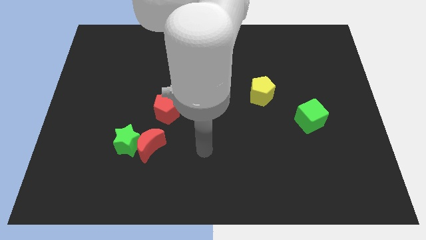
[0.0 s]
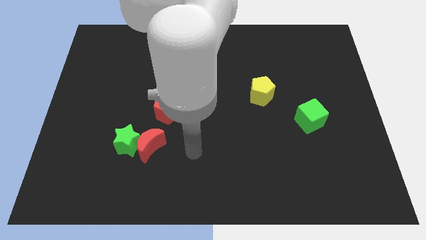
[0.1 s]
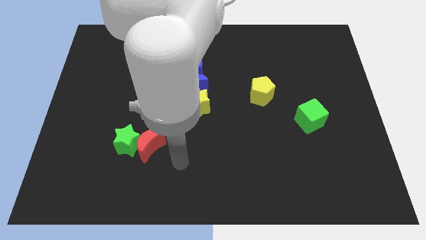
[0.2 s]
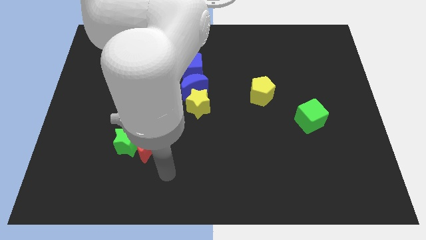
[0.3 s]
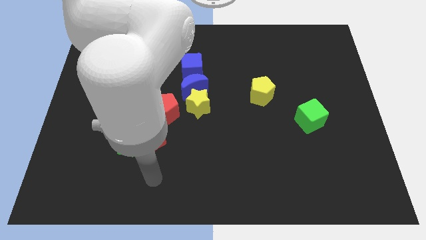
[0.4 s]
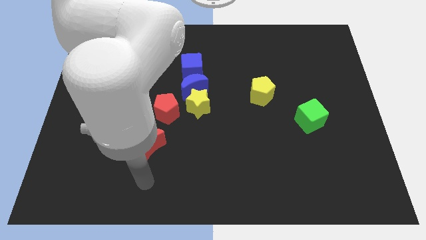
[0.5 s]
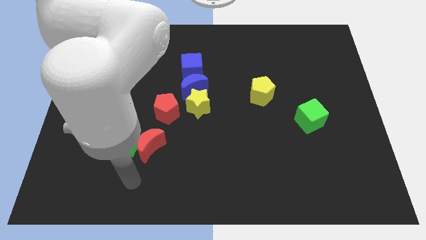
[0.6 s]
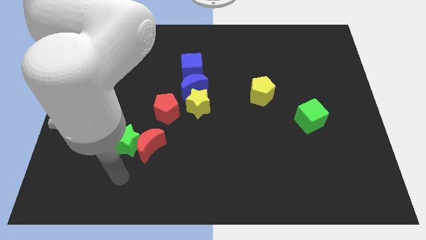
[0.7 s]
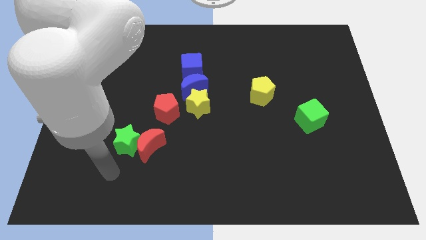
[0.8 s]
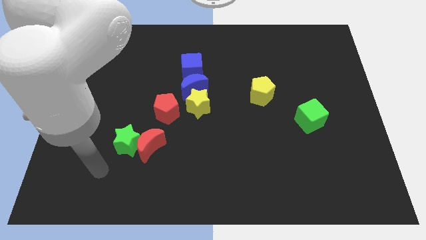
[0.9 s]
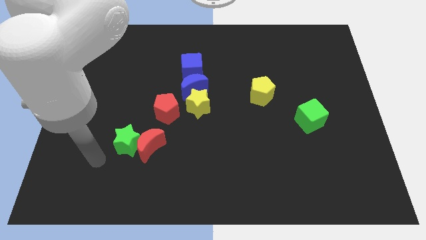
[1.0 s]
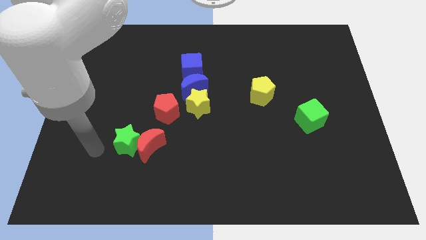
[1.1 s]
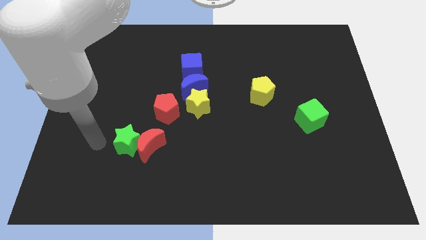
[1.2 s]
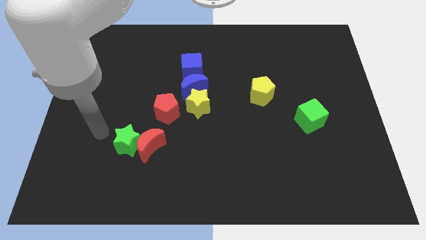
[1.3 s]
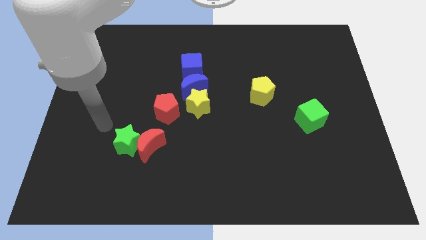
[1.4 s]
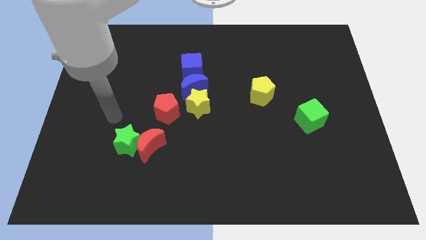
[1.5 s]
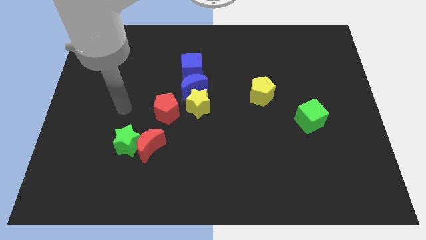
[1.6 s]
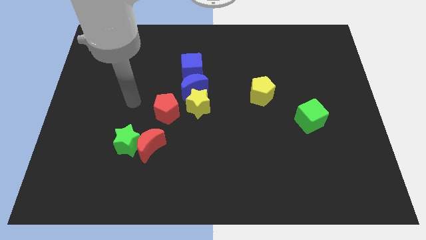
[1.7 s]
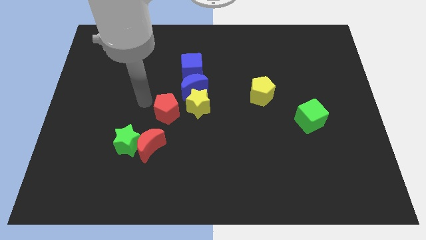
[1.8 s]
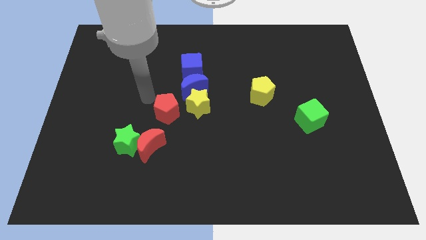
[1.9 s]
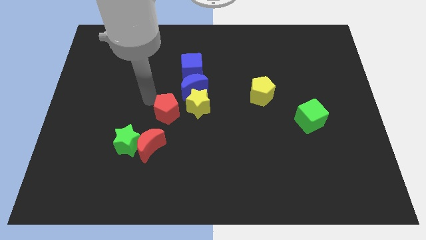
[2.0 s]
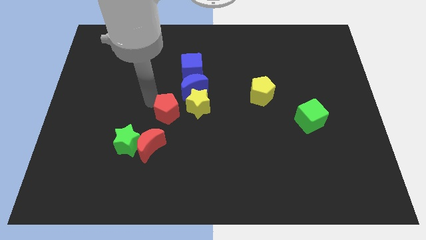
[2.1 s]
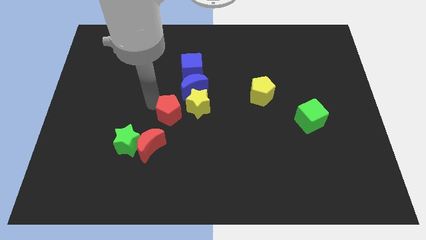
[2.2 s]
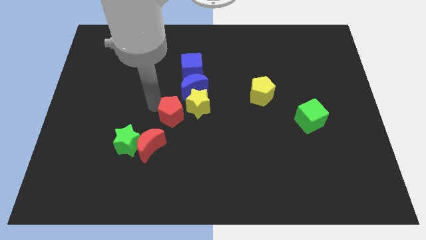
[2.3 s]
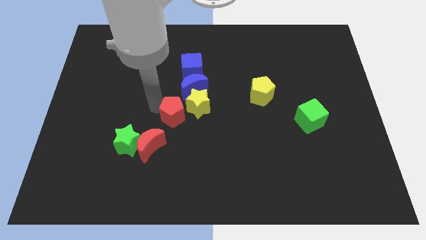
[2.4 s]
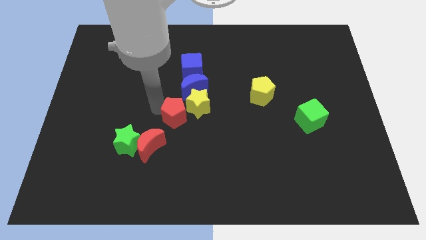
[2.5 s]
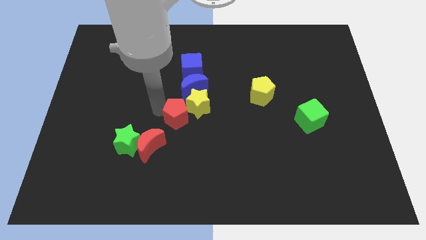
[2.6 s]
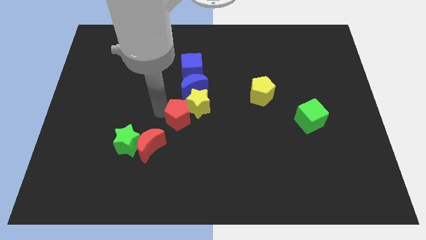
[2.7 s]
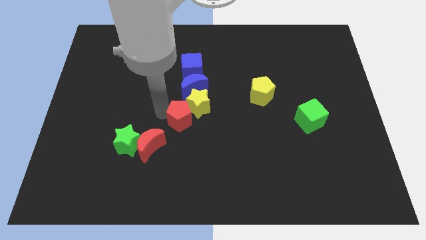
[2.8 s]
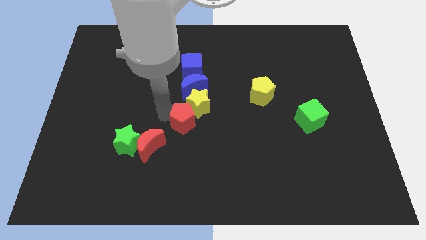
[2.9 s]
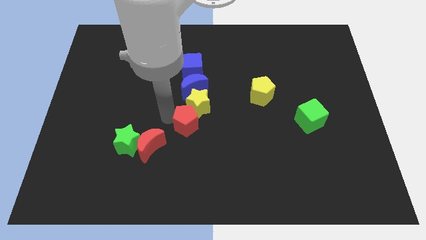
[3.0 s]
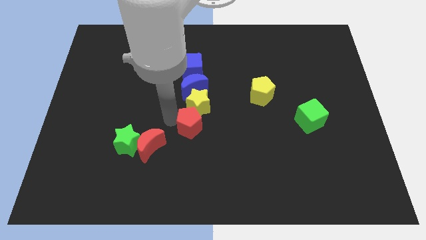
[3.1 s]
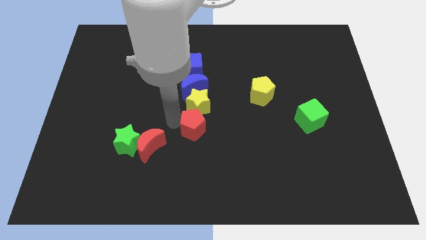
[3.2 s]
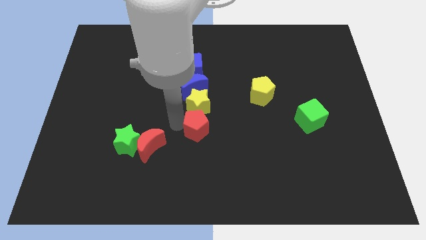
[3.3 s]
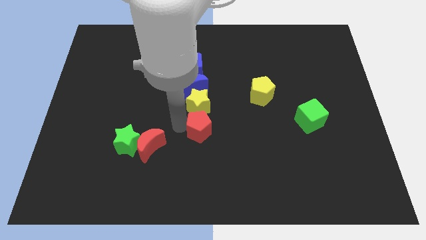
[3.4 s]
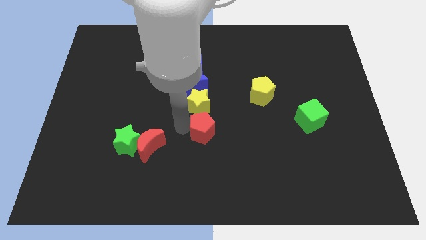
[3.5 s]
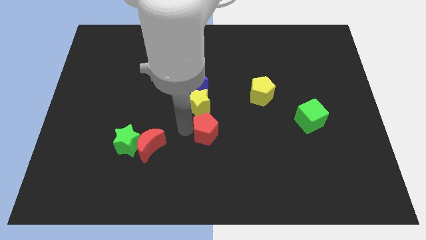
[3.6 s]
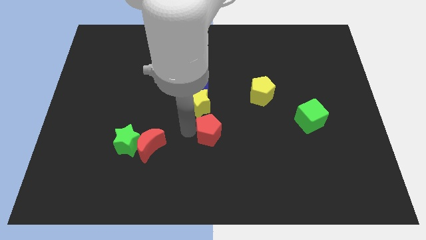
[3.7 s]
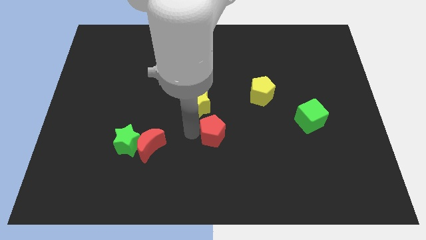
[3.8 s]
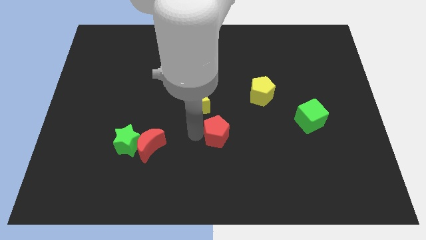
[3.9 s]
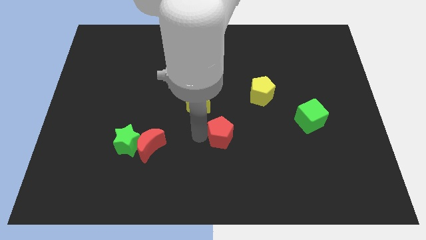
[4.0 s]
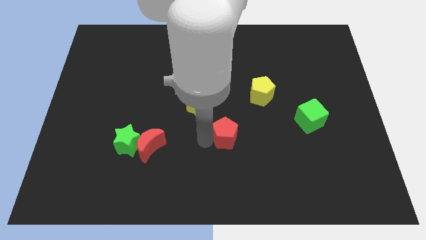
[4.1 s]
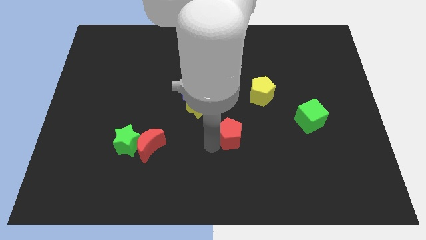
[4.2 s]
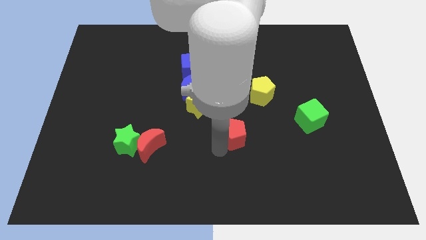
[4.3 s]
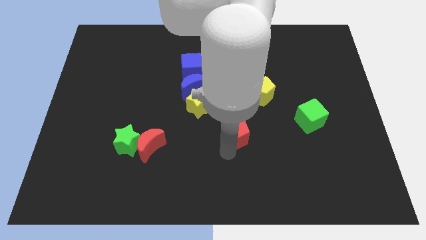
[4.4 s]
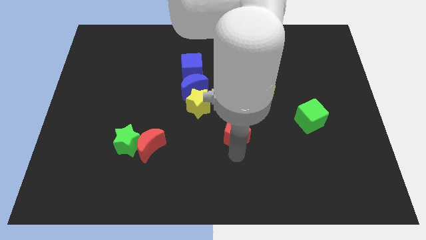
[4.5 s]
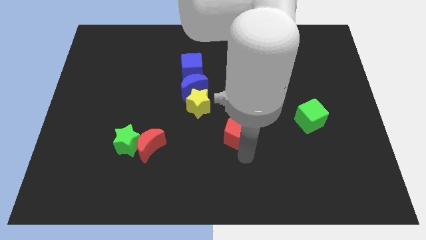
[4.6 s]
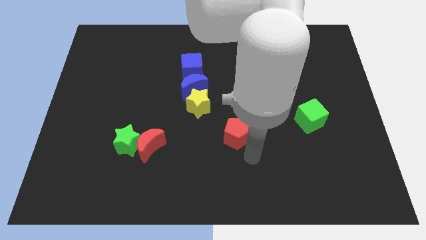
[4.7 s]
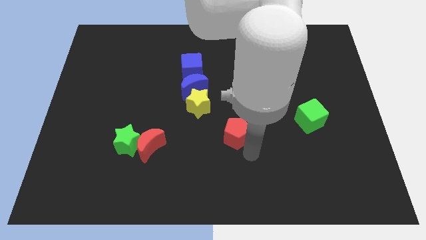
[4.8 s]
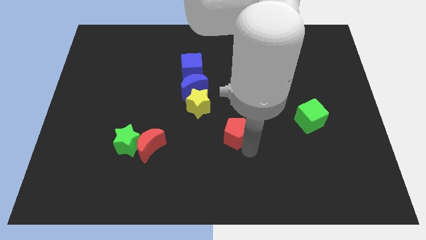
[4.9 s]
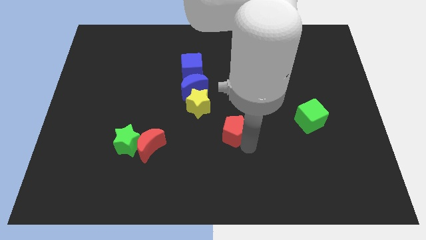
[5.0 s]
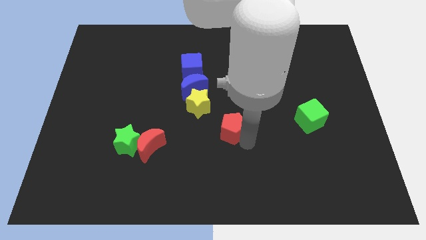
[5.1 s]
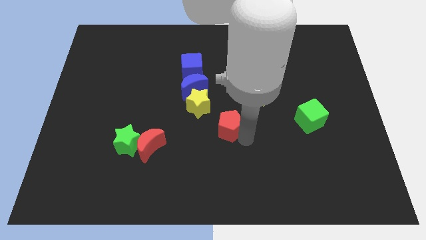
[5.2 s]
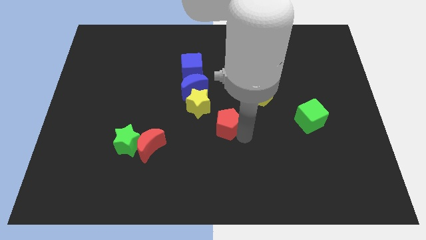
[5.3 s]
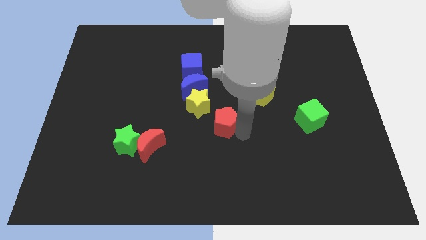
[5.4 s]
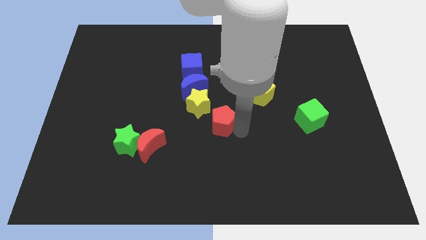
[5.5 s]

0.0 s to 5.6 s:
put the red pentagon to the bottom right side of the blue moon

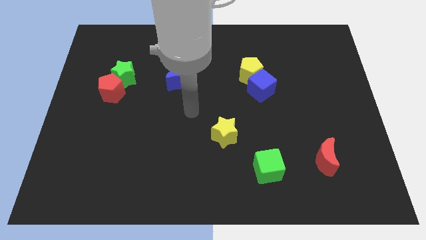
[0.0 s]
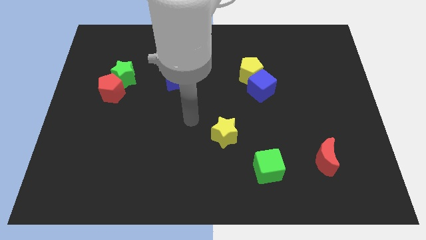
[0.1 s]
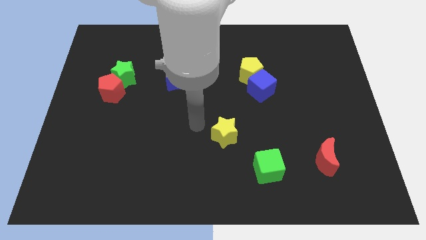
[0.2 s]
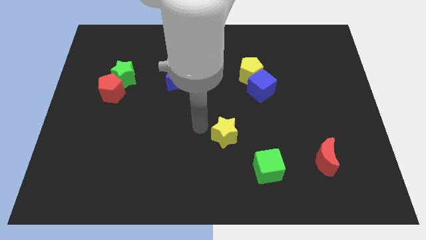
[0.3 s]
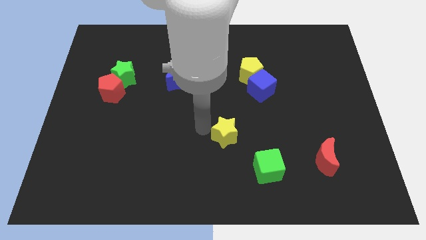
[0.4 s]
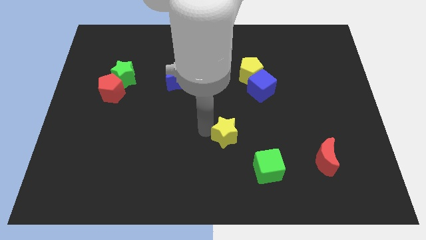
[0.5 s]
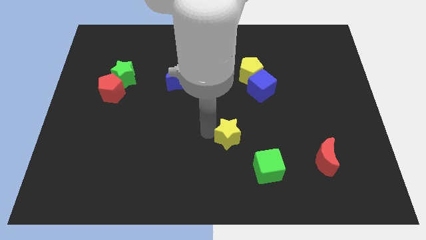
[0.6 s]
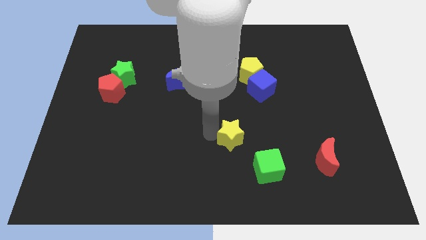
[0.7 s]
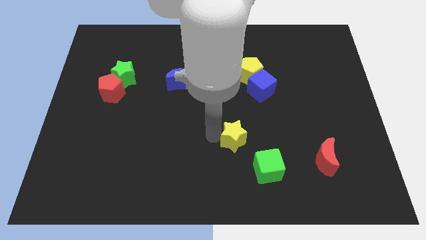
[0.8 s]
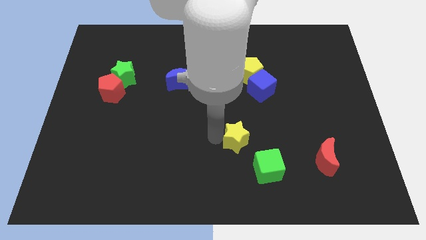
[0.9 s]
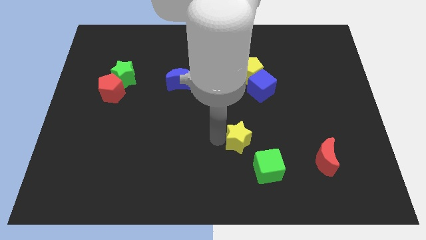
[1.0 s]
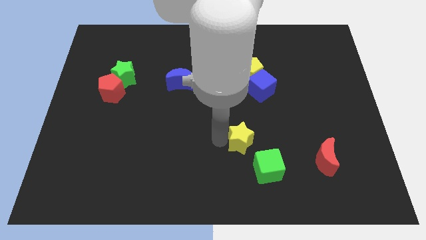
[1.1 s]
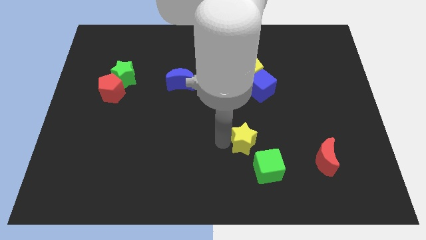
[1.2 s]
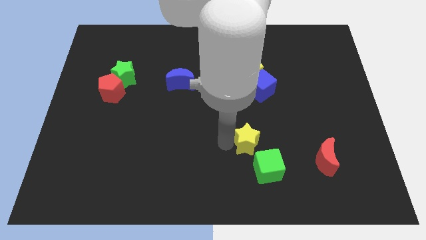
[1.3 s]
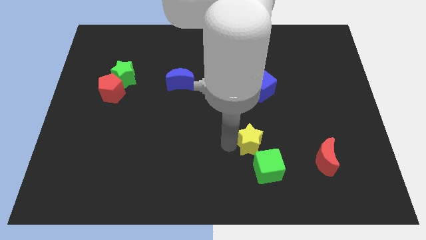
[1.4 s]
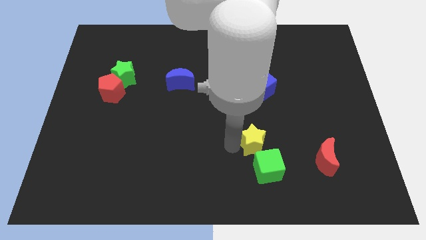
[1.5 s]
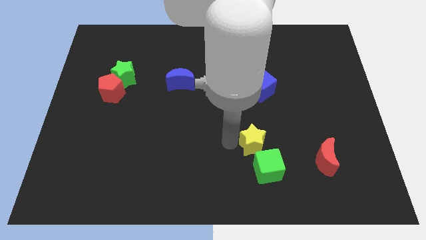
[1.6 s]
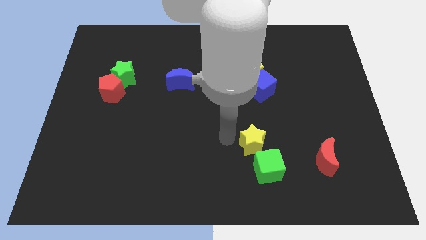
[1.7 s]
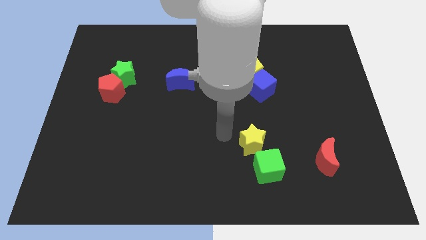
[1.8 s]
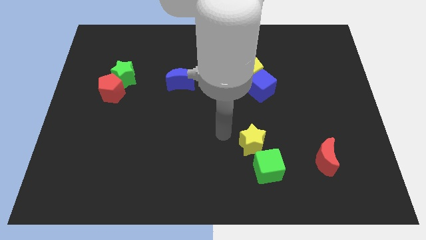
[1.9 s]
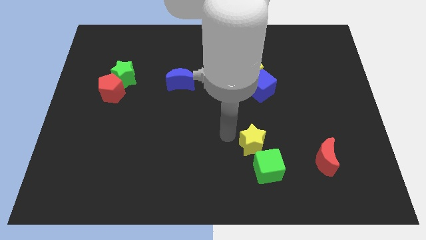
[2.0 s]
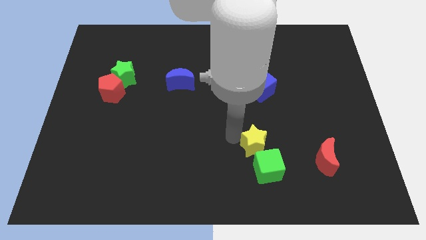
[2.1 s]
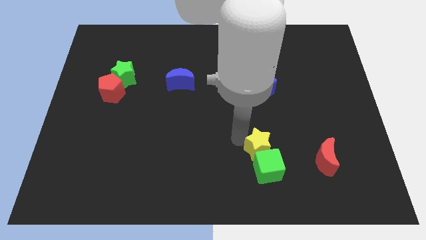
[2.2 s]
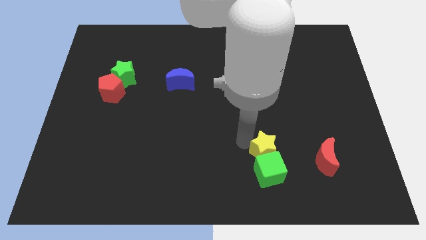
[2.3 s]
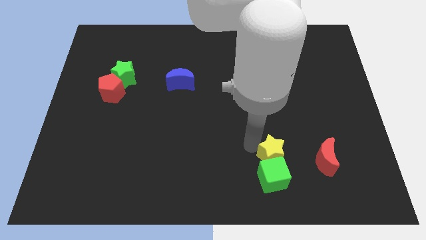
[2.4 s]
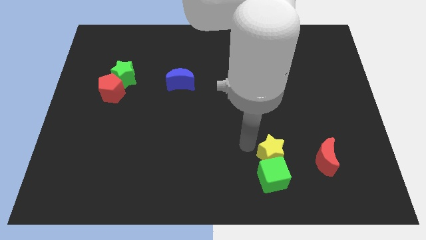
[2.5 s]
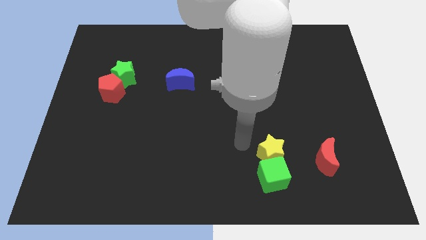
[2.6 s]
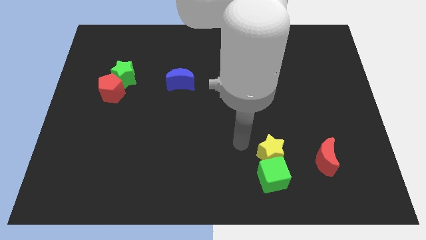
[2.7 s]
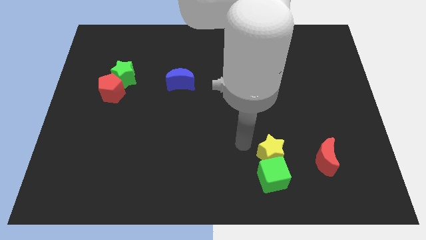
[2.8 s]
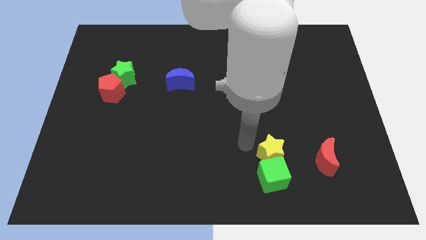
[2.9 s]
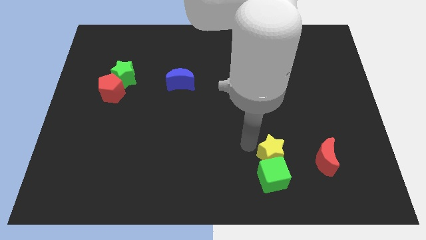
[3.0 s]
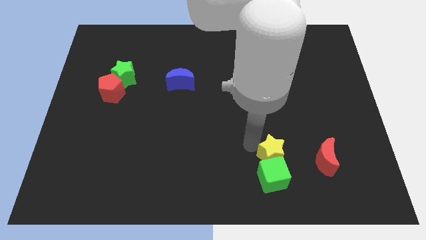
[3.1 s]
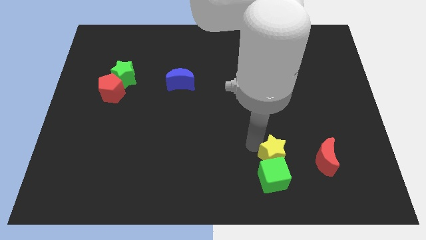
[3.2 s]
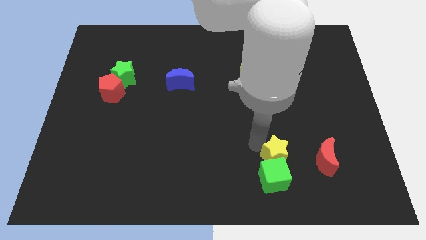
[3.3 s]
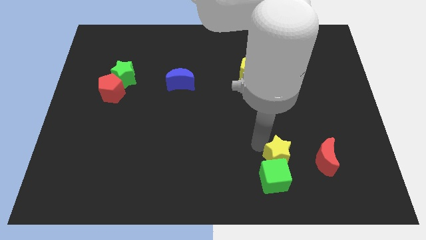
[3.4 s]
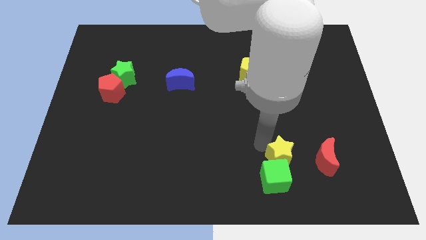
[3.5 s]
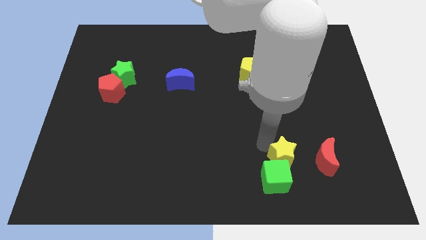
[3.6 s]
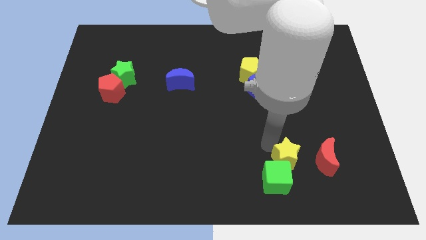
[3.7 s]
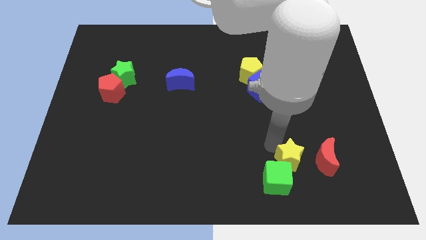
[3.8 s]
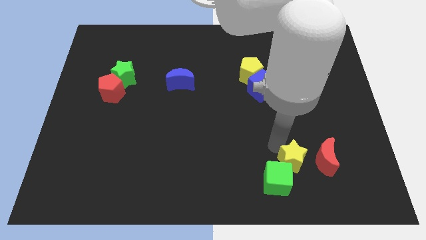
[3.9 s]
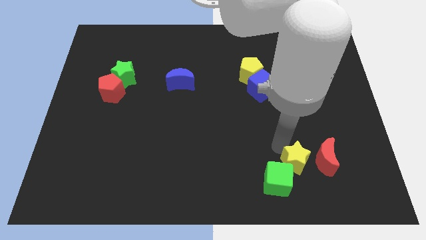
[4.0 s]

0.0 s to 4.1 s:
put the yellow star to the right of the green cube
